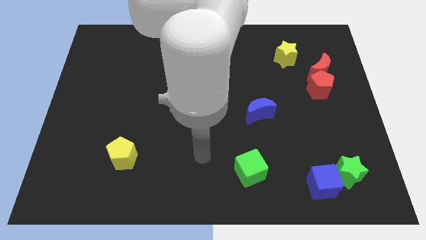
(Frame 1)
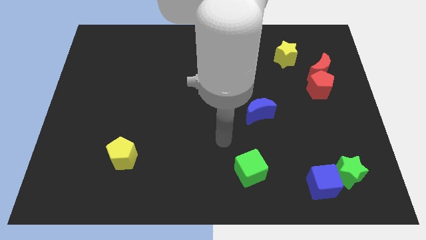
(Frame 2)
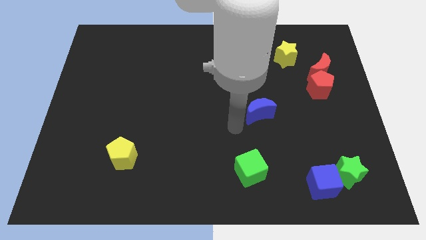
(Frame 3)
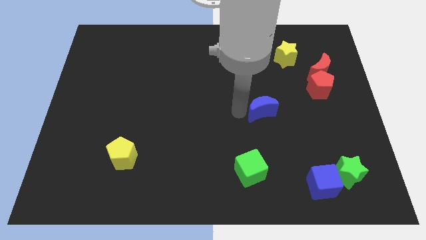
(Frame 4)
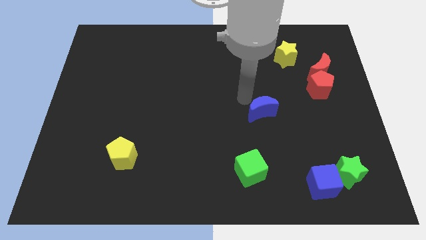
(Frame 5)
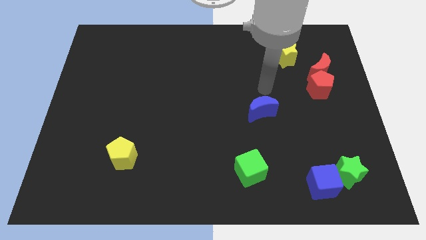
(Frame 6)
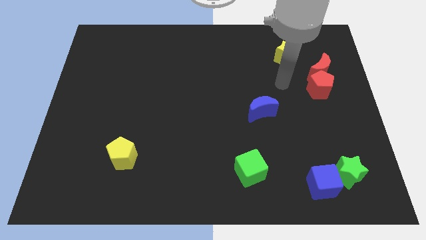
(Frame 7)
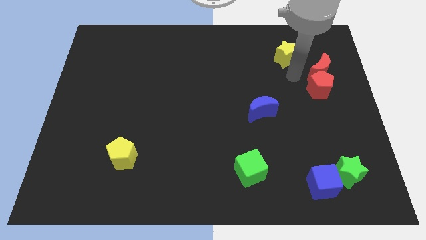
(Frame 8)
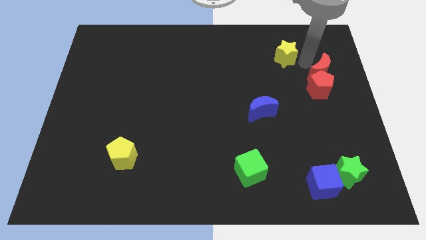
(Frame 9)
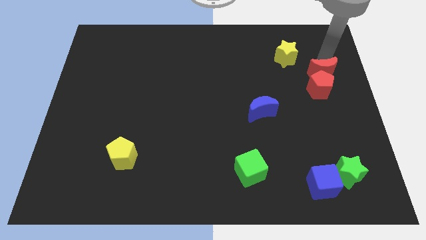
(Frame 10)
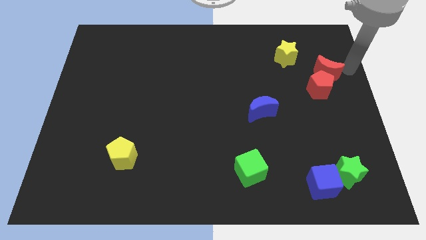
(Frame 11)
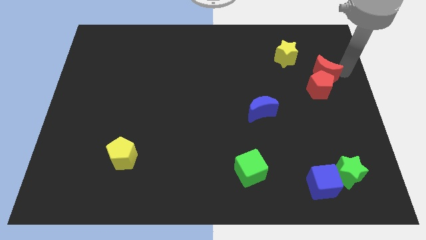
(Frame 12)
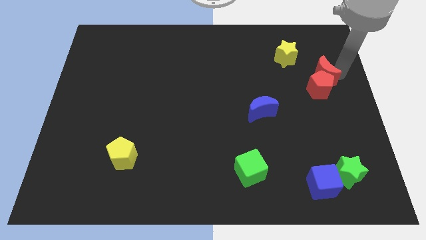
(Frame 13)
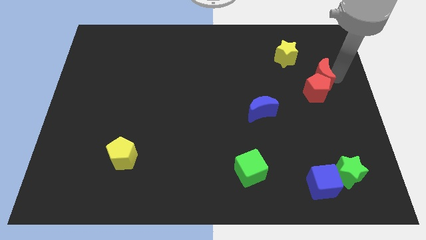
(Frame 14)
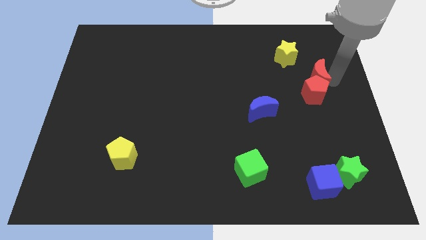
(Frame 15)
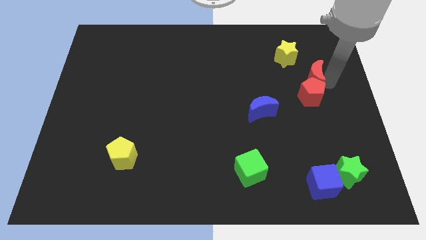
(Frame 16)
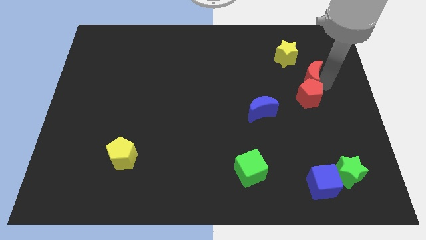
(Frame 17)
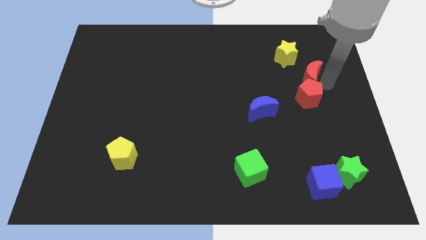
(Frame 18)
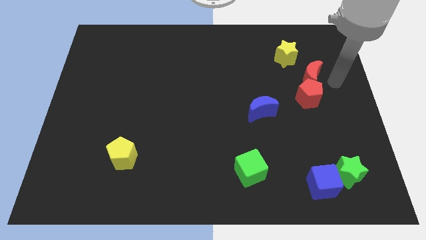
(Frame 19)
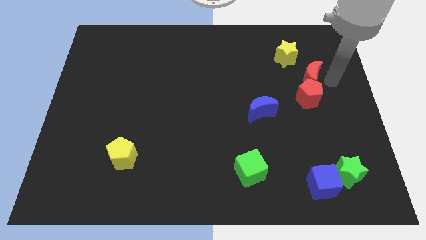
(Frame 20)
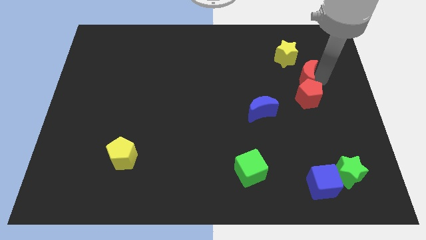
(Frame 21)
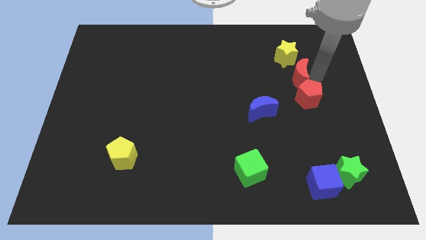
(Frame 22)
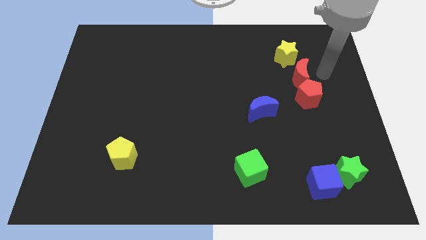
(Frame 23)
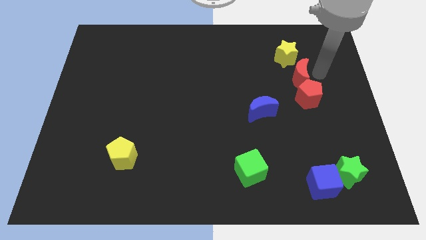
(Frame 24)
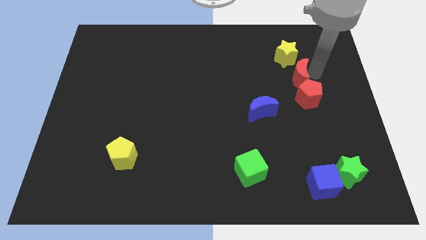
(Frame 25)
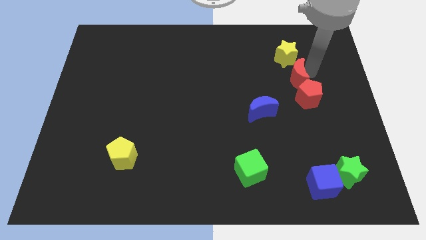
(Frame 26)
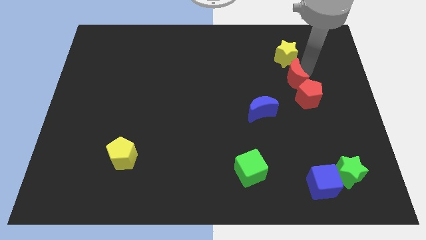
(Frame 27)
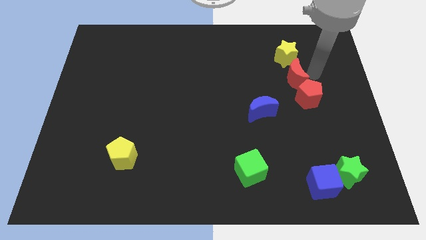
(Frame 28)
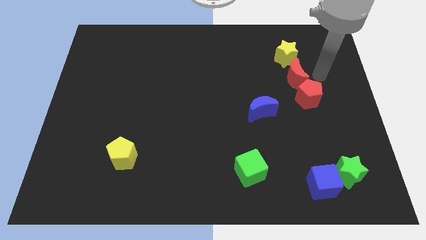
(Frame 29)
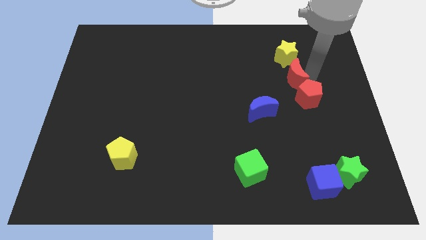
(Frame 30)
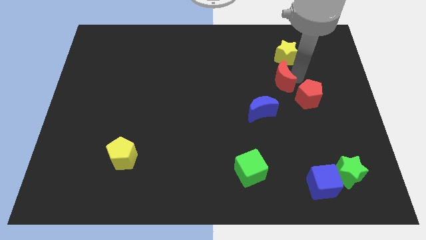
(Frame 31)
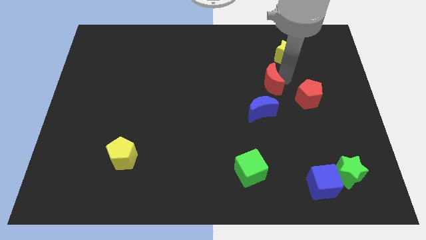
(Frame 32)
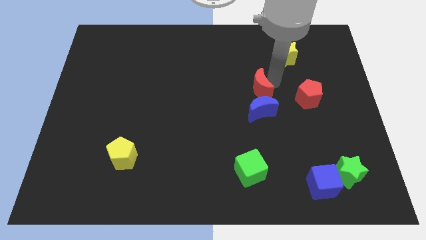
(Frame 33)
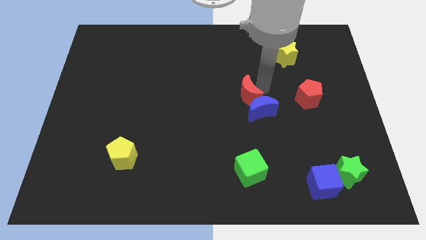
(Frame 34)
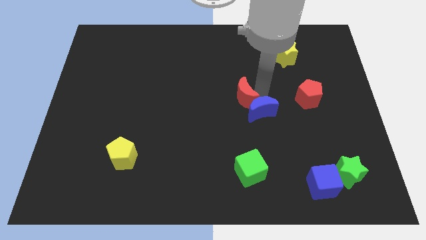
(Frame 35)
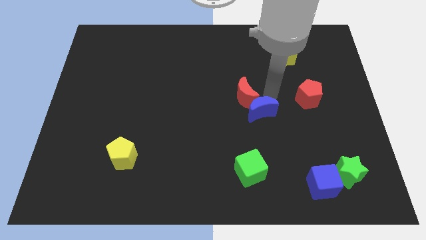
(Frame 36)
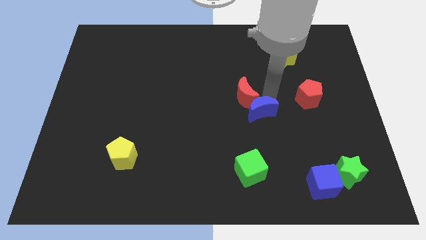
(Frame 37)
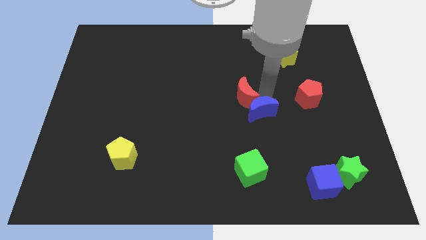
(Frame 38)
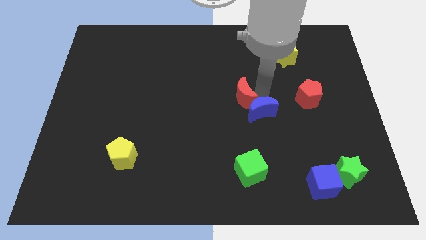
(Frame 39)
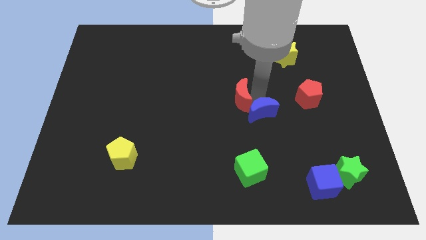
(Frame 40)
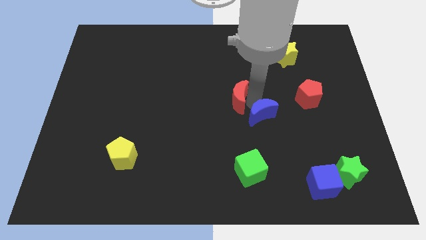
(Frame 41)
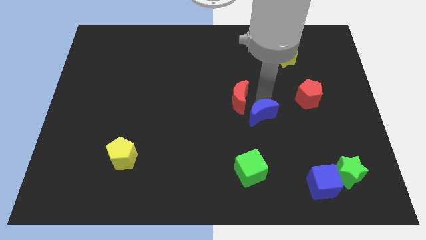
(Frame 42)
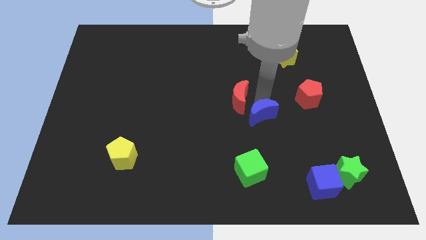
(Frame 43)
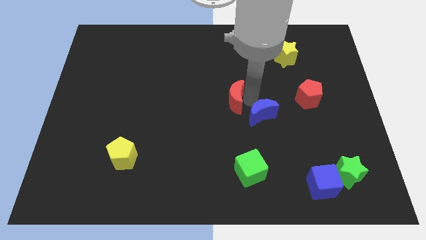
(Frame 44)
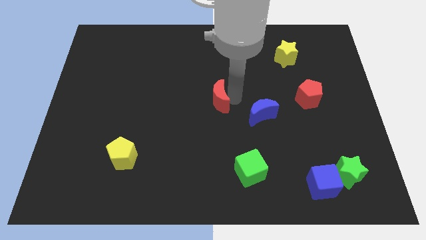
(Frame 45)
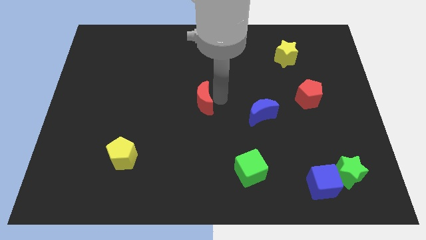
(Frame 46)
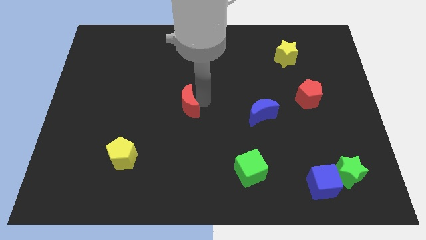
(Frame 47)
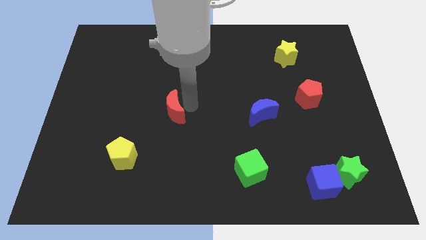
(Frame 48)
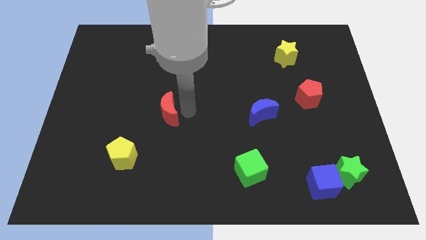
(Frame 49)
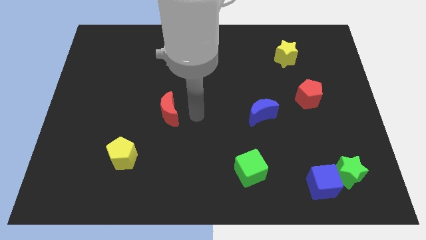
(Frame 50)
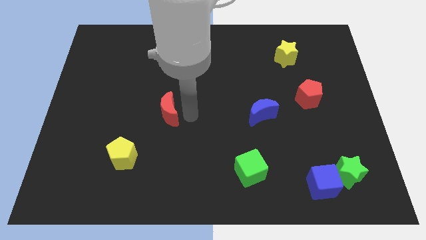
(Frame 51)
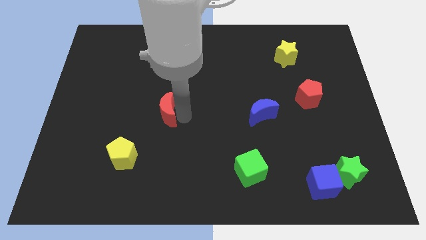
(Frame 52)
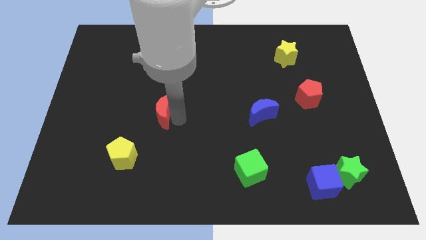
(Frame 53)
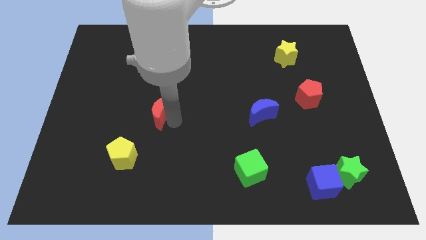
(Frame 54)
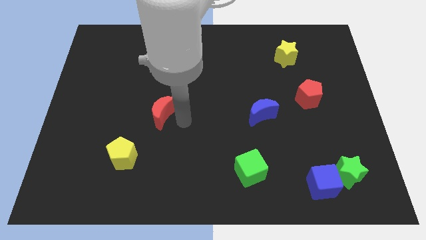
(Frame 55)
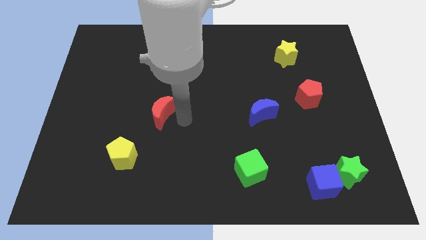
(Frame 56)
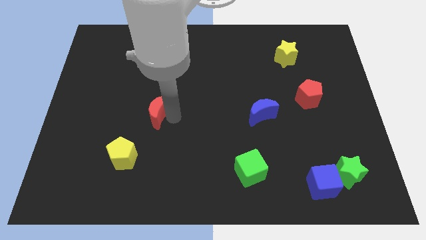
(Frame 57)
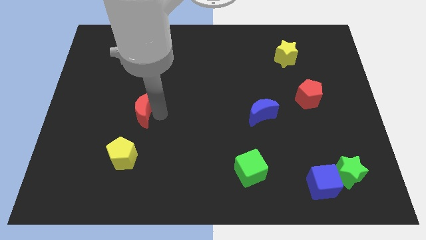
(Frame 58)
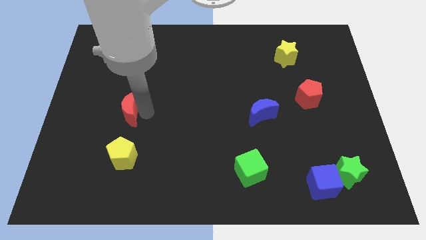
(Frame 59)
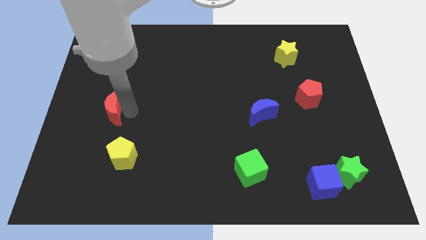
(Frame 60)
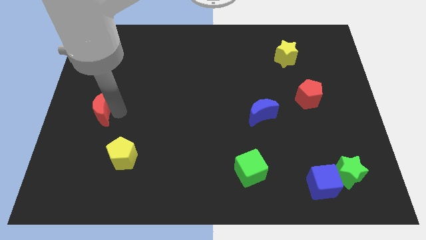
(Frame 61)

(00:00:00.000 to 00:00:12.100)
push the red moon to the left side of the board
